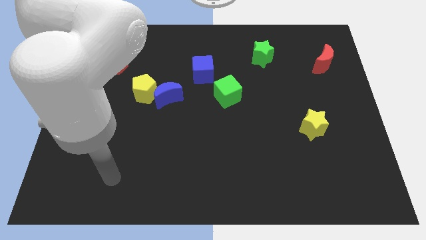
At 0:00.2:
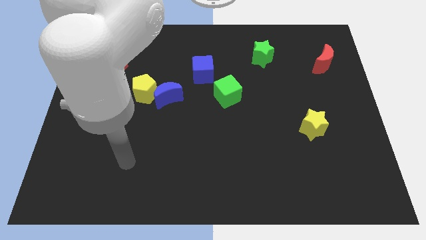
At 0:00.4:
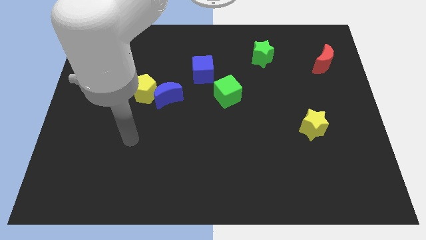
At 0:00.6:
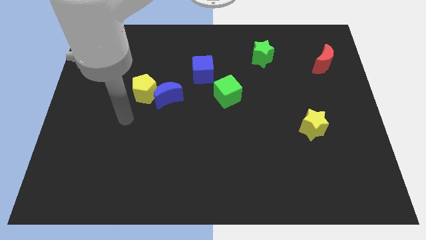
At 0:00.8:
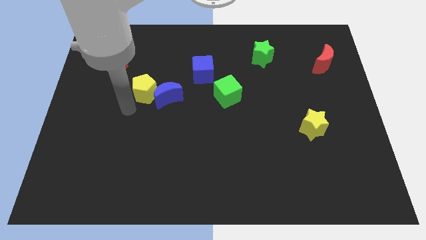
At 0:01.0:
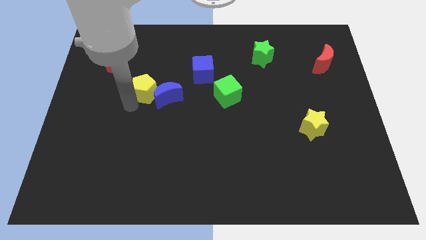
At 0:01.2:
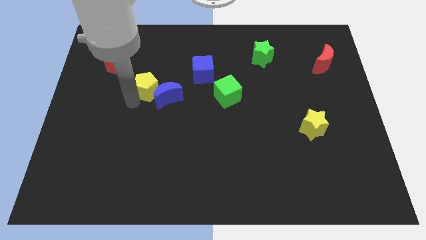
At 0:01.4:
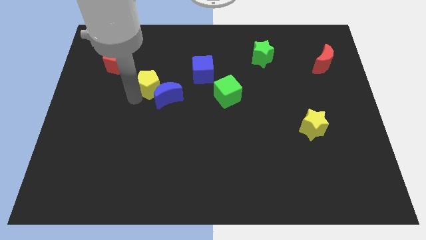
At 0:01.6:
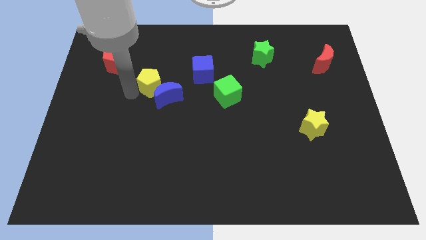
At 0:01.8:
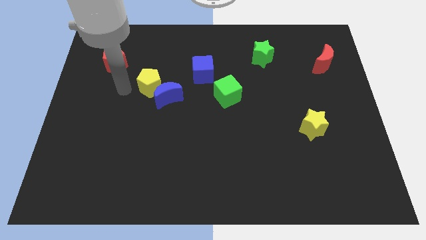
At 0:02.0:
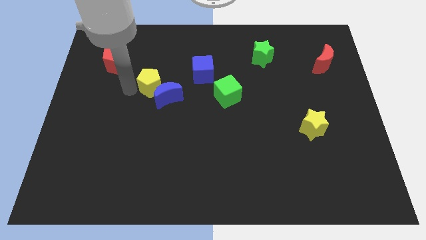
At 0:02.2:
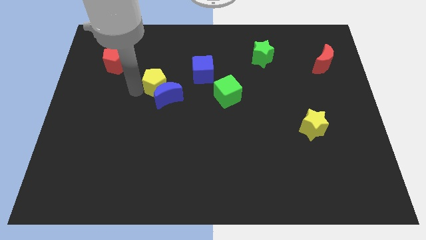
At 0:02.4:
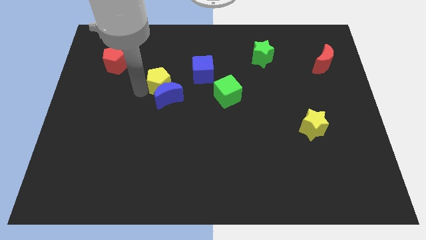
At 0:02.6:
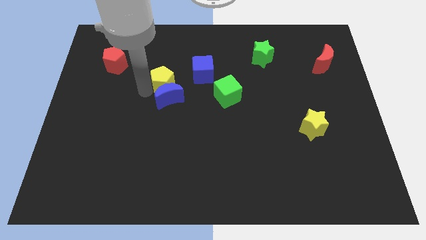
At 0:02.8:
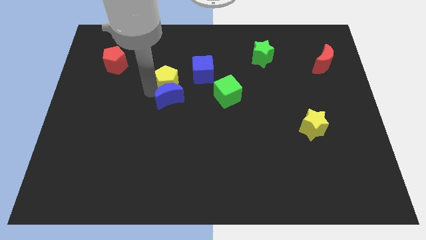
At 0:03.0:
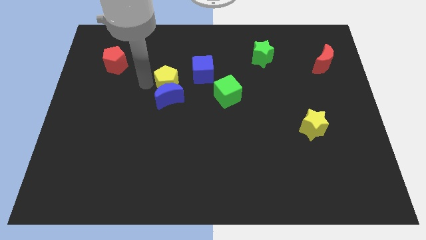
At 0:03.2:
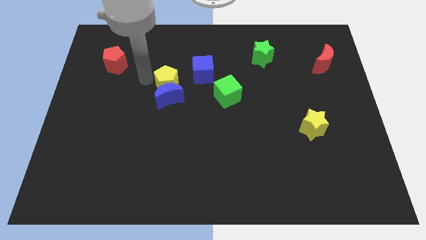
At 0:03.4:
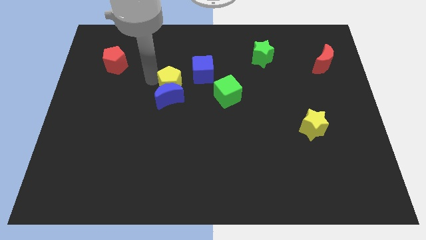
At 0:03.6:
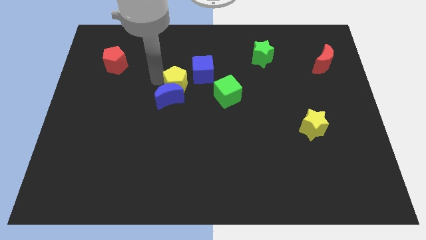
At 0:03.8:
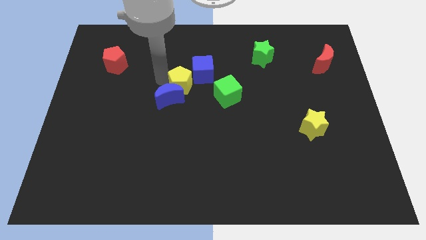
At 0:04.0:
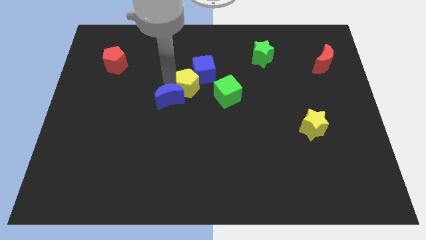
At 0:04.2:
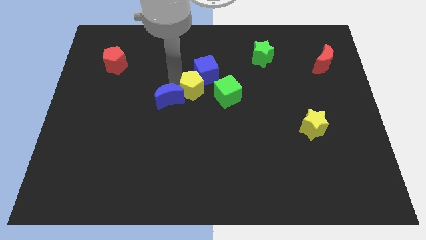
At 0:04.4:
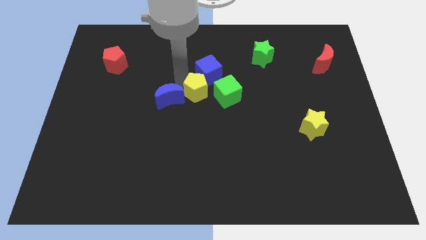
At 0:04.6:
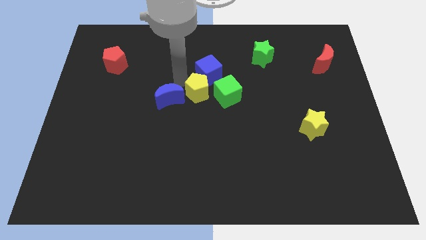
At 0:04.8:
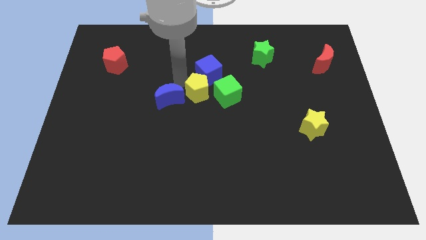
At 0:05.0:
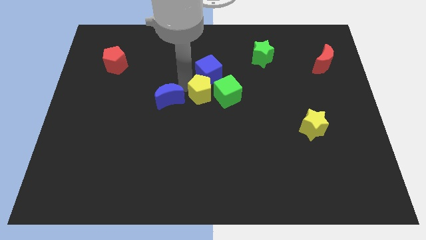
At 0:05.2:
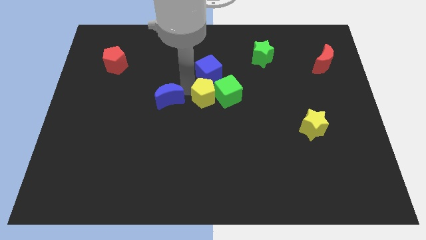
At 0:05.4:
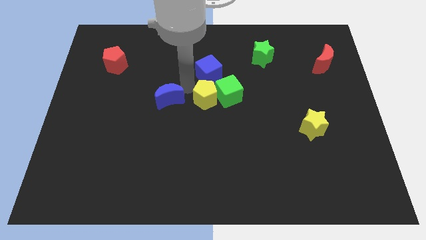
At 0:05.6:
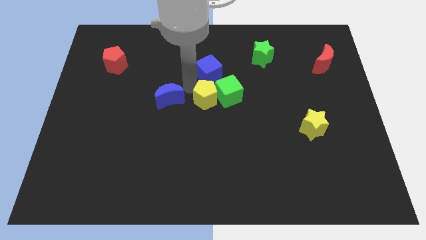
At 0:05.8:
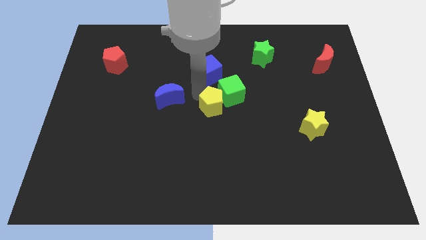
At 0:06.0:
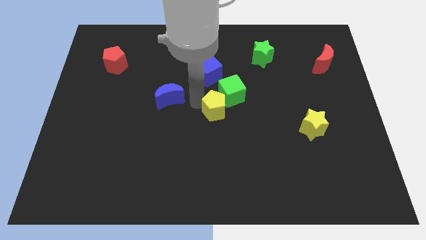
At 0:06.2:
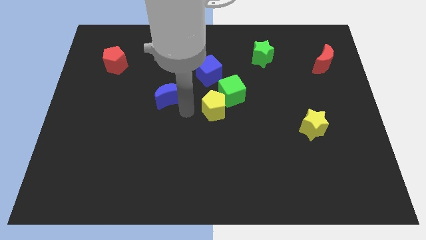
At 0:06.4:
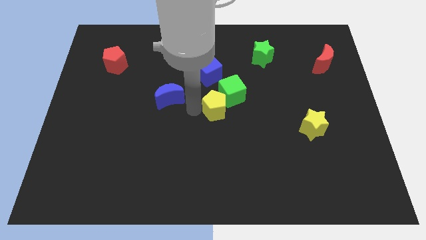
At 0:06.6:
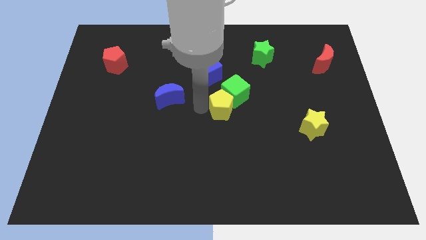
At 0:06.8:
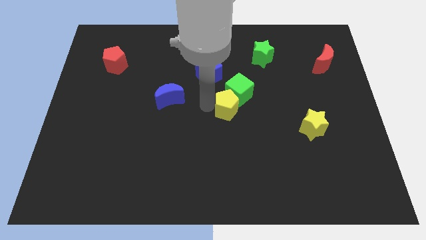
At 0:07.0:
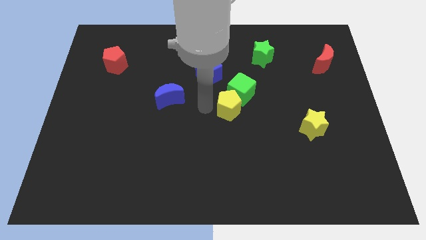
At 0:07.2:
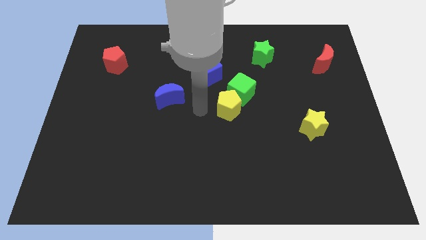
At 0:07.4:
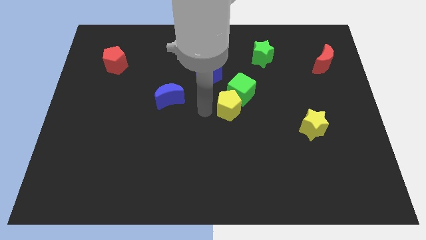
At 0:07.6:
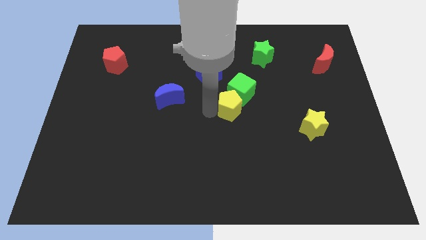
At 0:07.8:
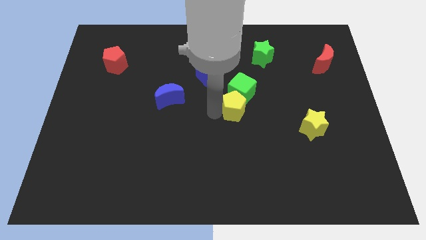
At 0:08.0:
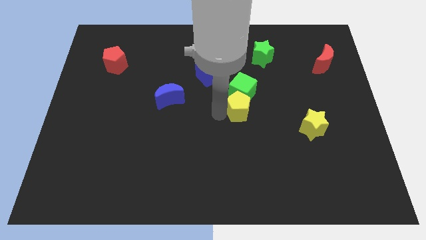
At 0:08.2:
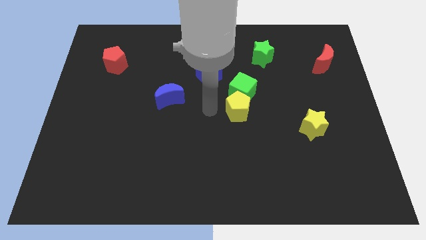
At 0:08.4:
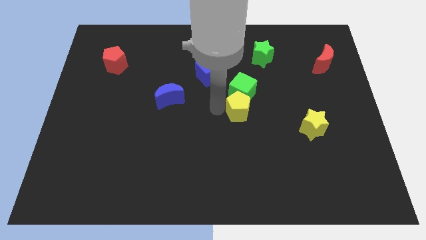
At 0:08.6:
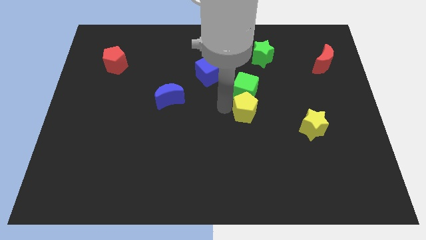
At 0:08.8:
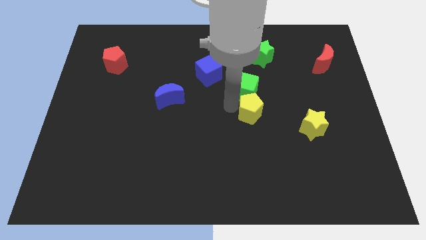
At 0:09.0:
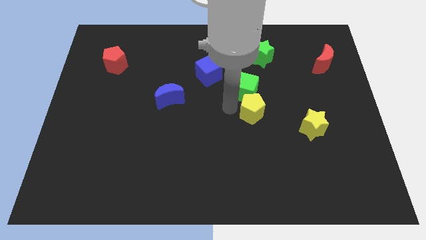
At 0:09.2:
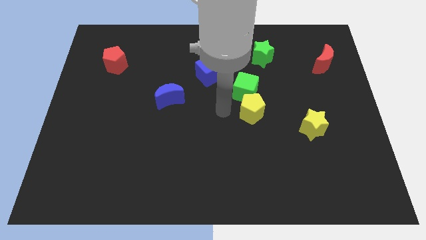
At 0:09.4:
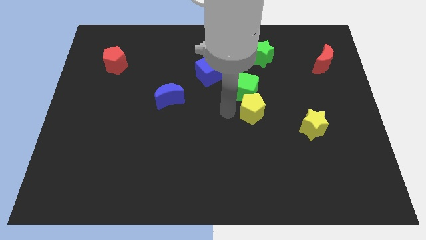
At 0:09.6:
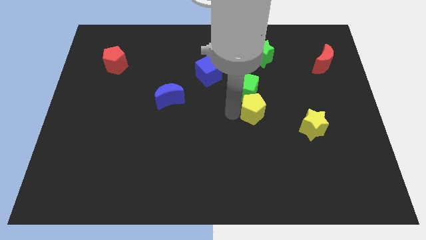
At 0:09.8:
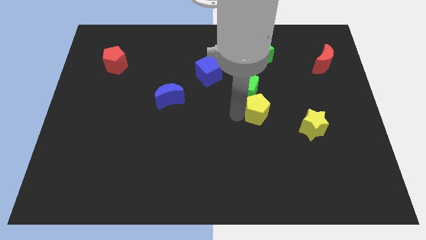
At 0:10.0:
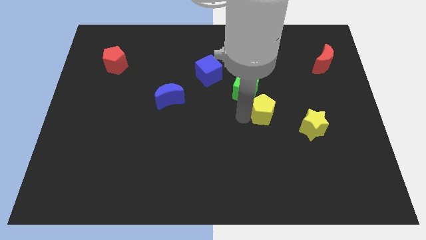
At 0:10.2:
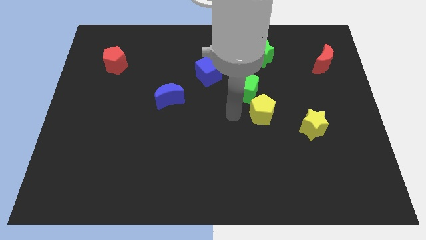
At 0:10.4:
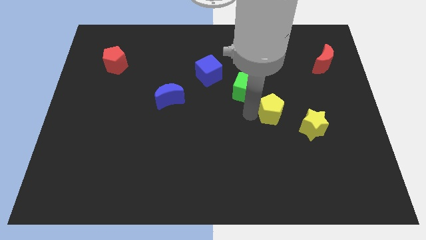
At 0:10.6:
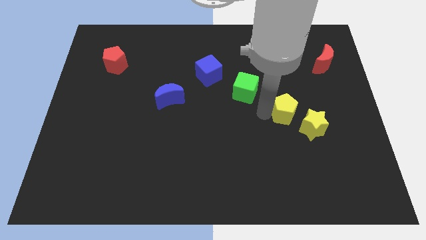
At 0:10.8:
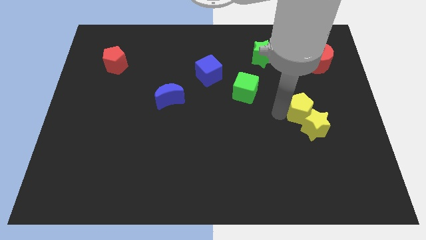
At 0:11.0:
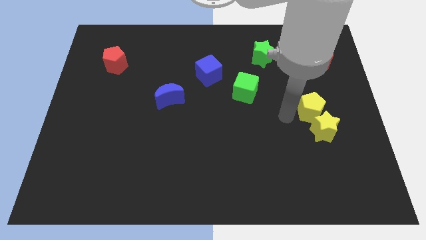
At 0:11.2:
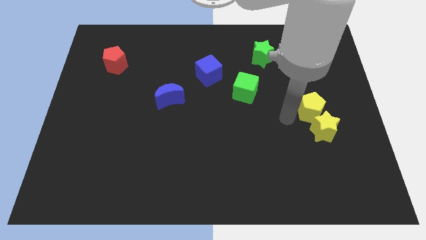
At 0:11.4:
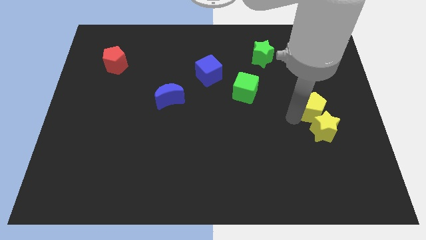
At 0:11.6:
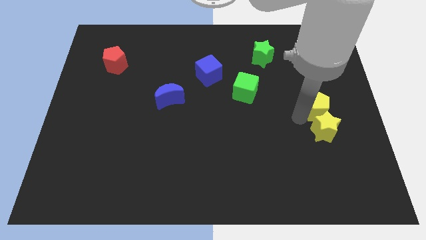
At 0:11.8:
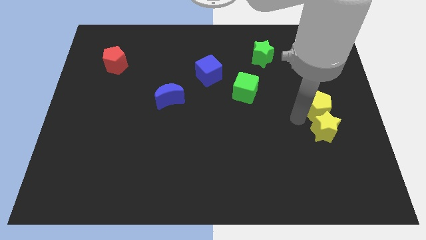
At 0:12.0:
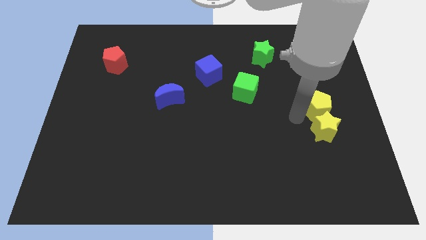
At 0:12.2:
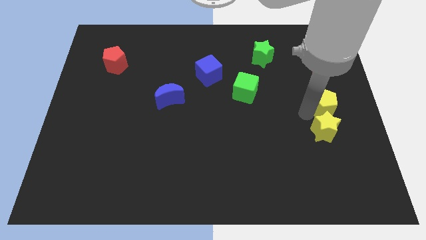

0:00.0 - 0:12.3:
put the yellow pentagon to the center right
